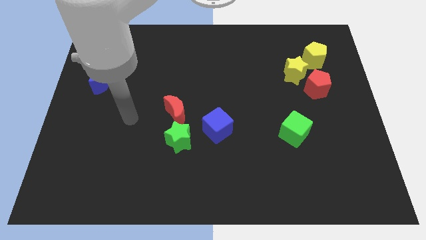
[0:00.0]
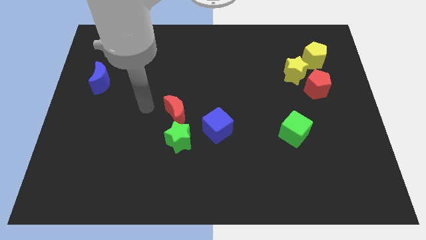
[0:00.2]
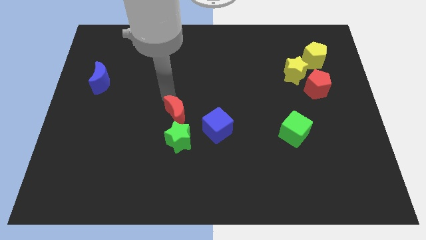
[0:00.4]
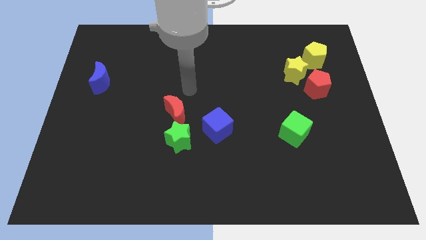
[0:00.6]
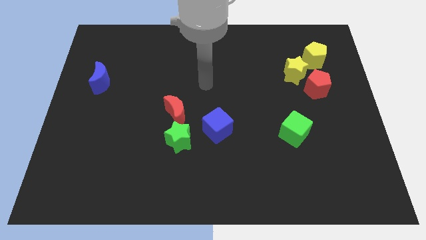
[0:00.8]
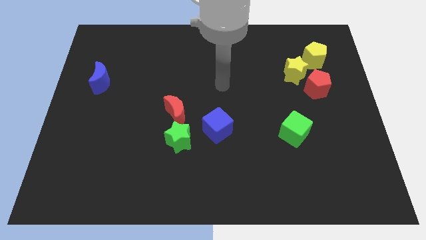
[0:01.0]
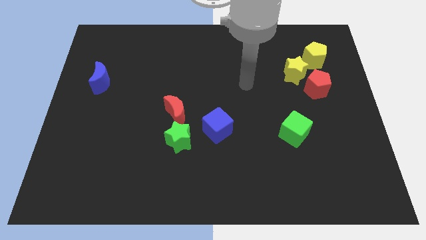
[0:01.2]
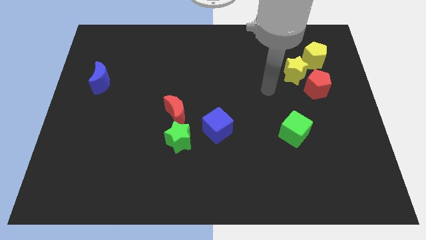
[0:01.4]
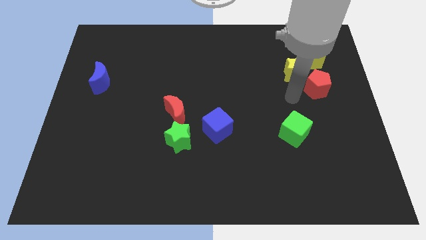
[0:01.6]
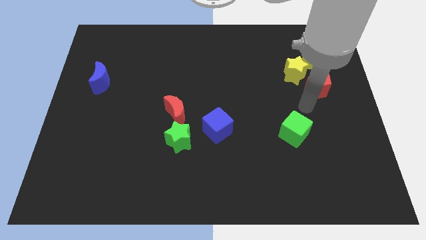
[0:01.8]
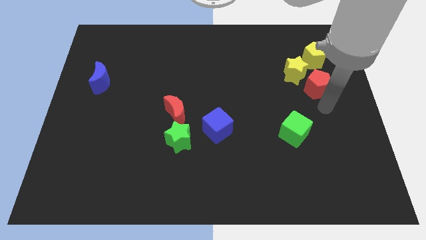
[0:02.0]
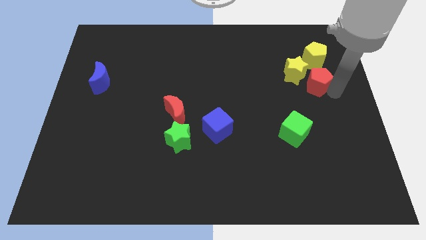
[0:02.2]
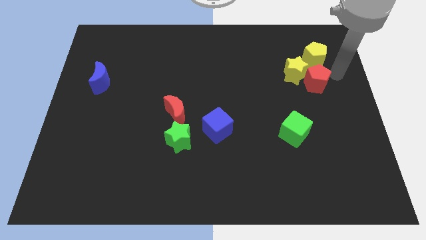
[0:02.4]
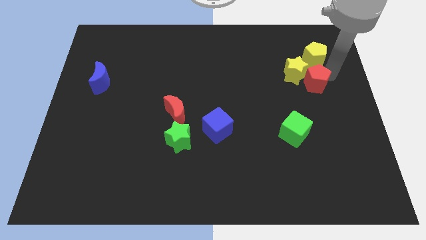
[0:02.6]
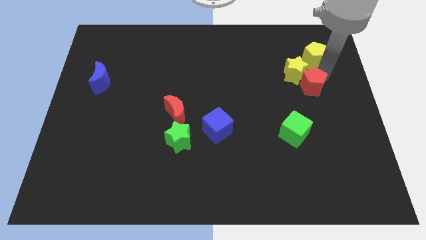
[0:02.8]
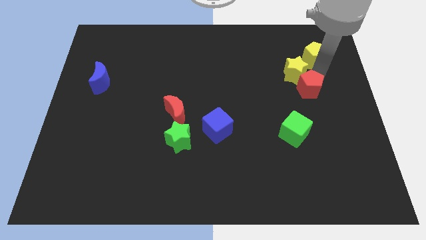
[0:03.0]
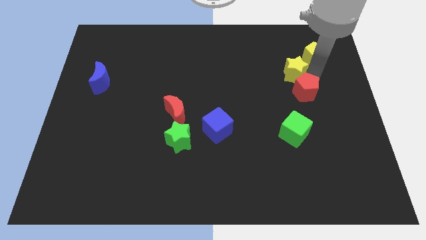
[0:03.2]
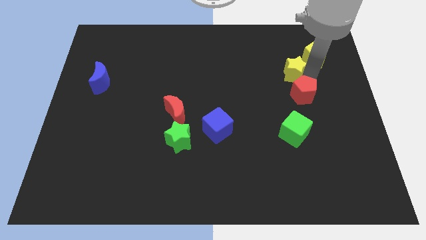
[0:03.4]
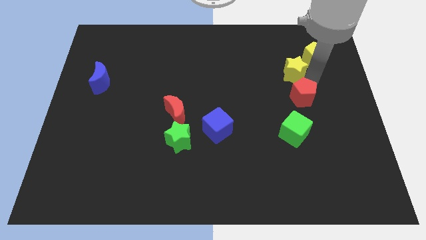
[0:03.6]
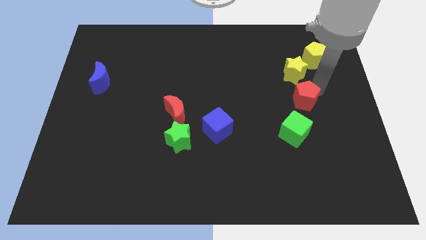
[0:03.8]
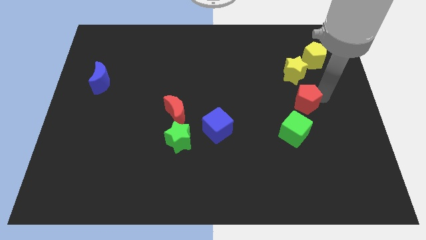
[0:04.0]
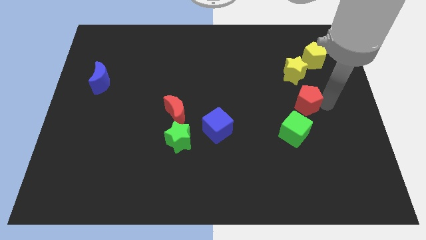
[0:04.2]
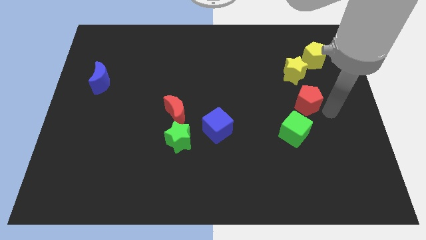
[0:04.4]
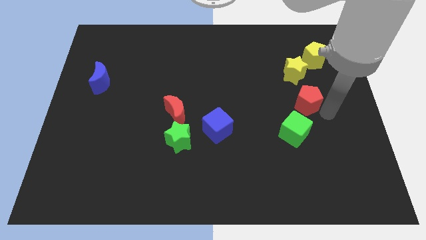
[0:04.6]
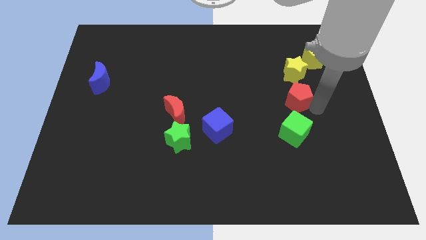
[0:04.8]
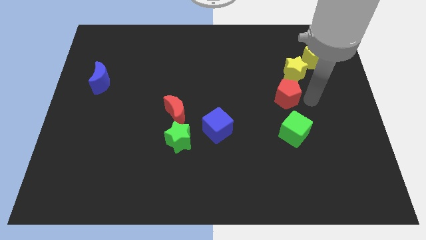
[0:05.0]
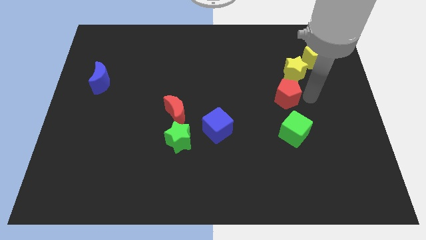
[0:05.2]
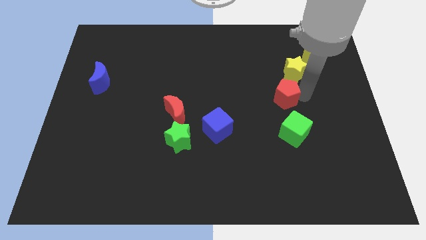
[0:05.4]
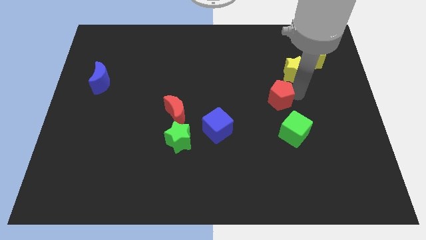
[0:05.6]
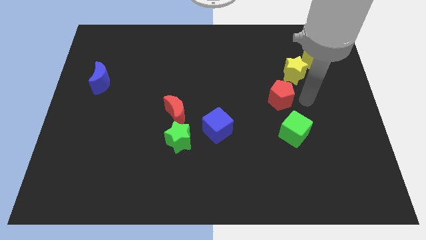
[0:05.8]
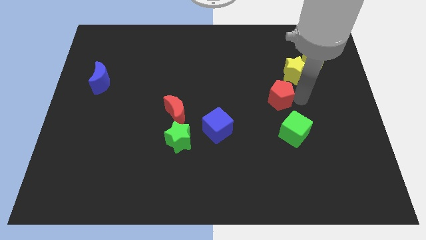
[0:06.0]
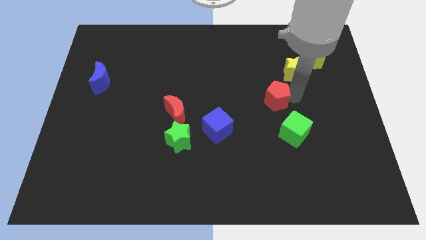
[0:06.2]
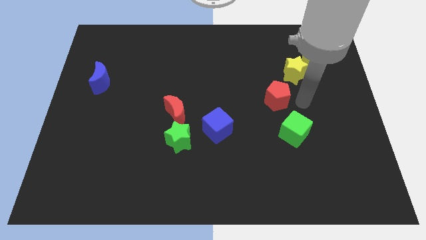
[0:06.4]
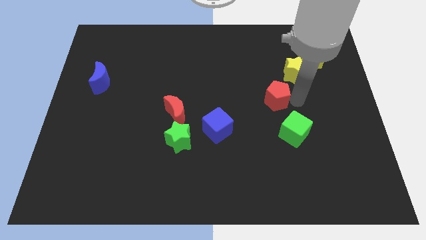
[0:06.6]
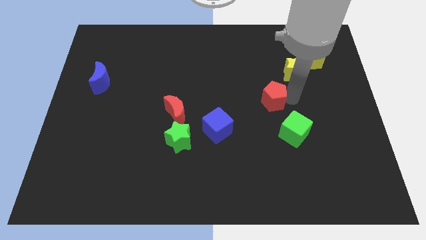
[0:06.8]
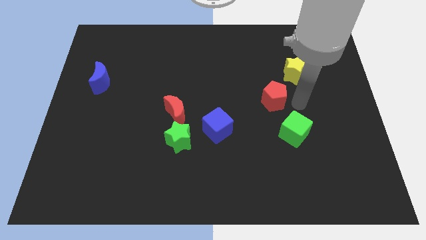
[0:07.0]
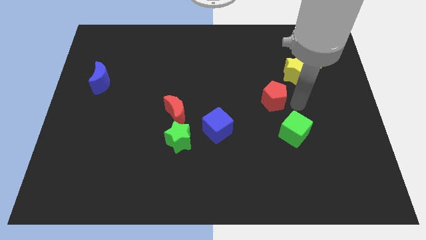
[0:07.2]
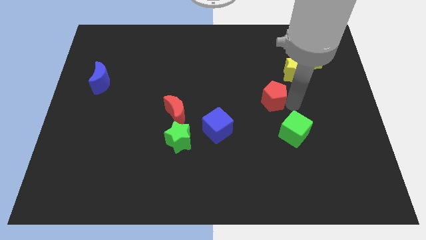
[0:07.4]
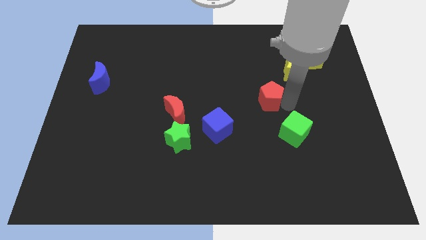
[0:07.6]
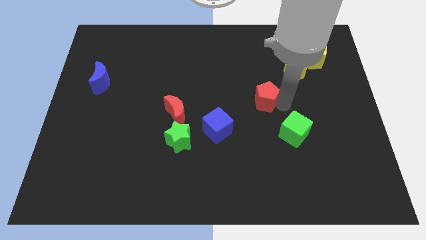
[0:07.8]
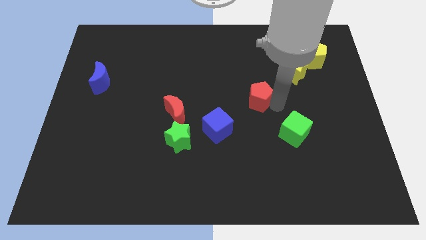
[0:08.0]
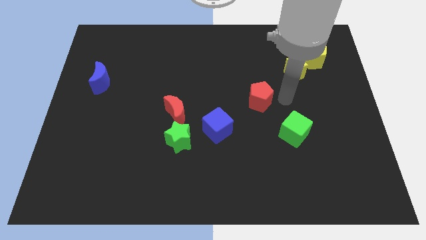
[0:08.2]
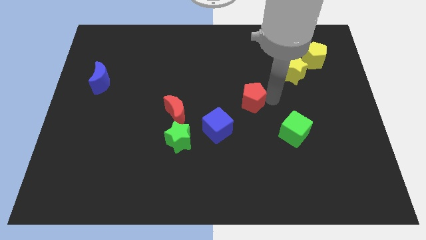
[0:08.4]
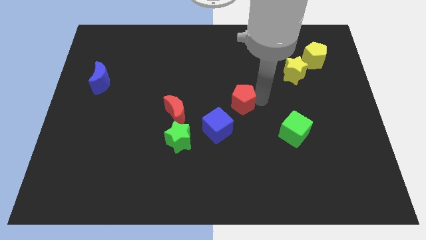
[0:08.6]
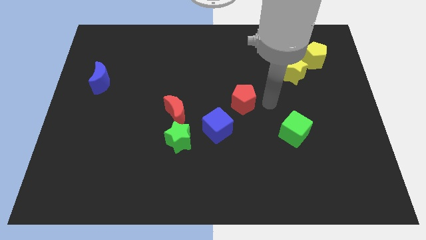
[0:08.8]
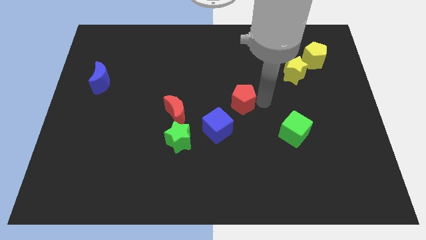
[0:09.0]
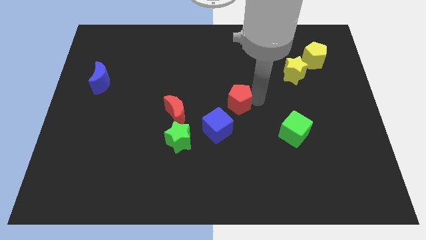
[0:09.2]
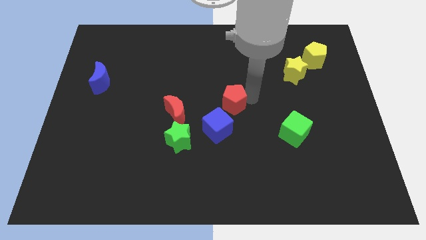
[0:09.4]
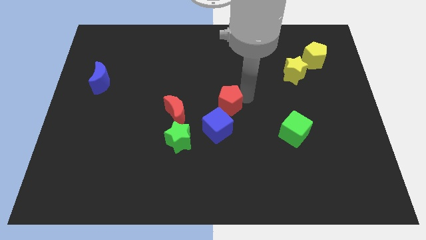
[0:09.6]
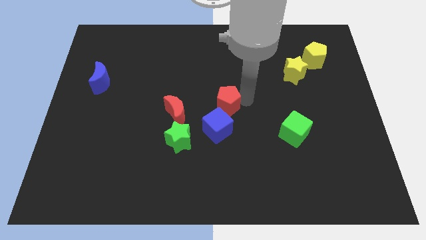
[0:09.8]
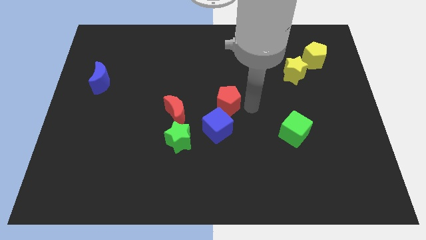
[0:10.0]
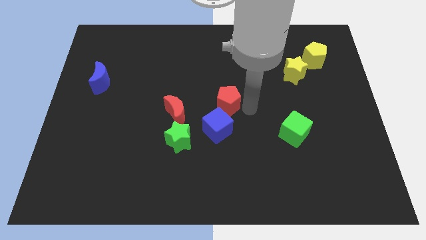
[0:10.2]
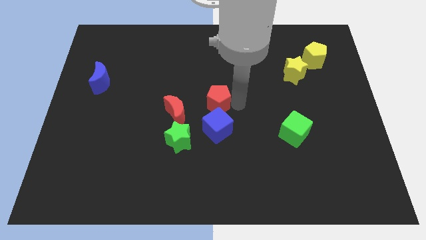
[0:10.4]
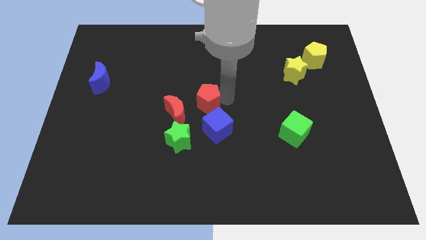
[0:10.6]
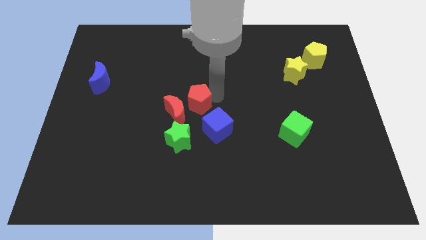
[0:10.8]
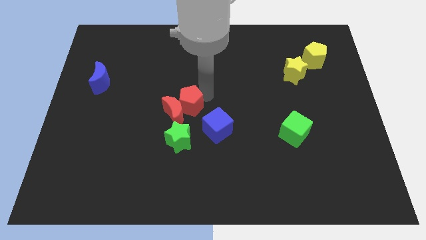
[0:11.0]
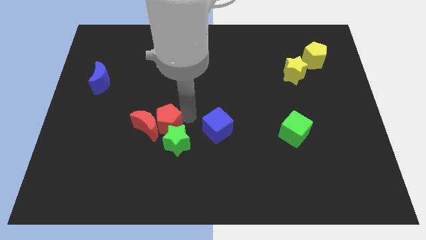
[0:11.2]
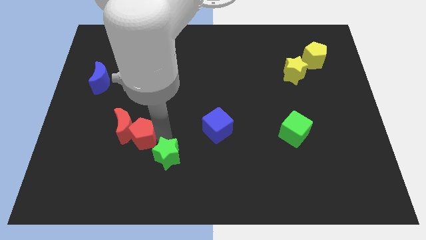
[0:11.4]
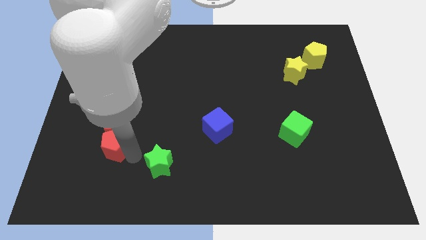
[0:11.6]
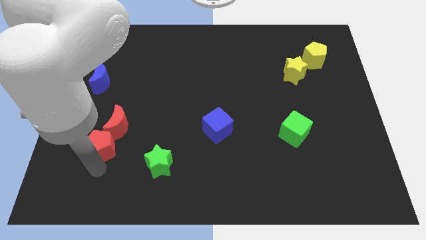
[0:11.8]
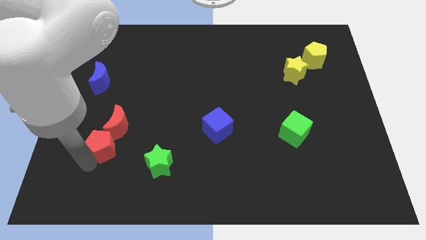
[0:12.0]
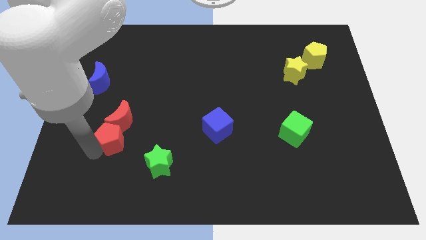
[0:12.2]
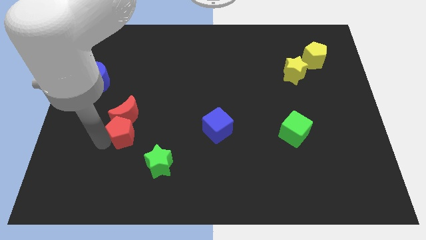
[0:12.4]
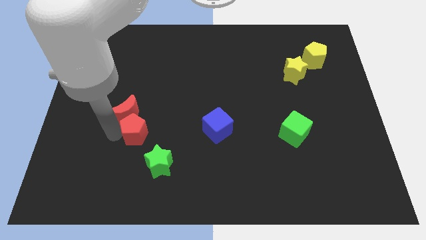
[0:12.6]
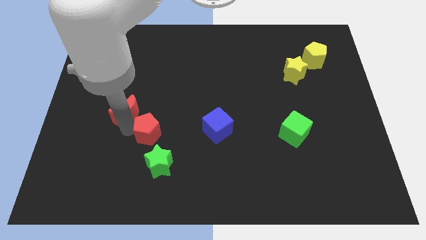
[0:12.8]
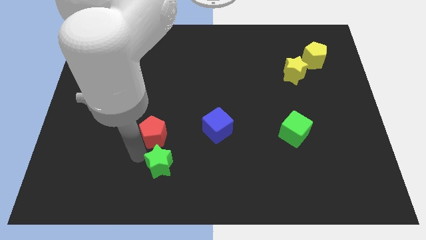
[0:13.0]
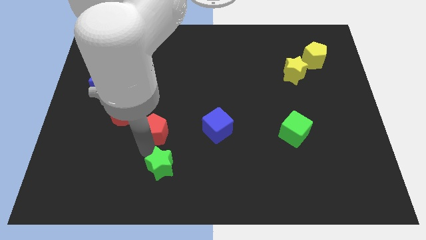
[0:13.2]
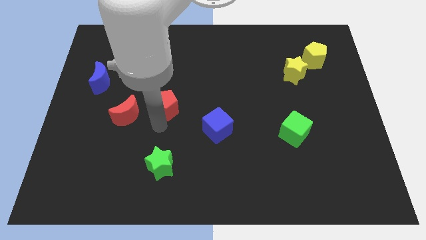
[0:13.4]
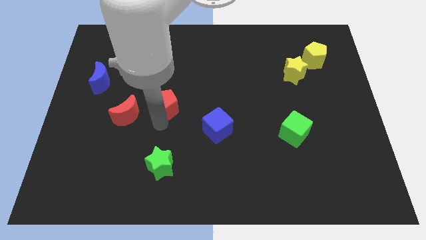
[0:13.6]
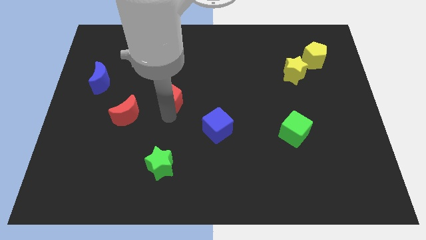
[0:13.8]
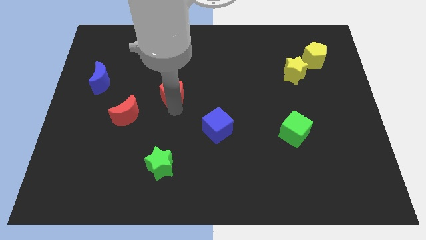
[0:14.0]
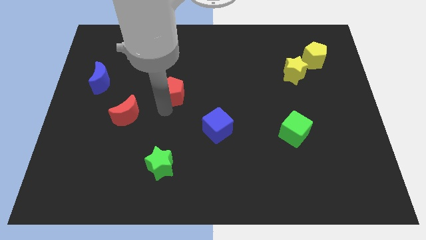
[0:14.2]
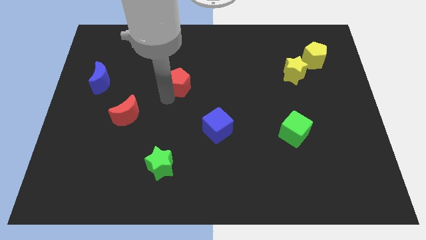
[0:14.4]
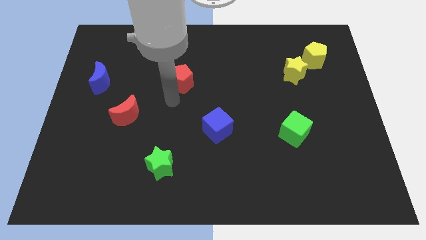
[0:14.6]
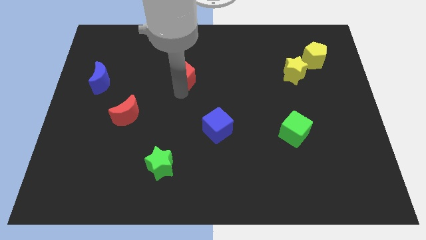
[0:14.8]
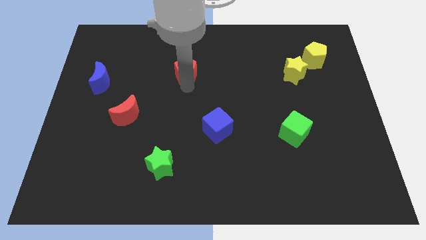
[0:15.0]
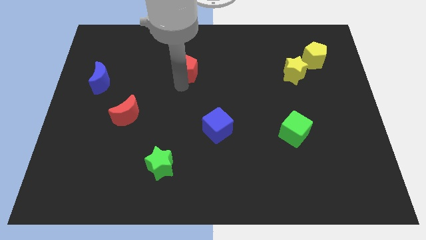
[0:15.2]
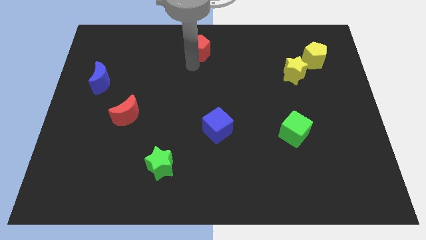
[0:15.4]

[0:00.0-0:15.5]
move the red pentagon to the towards your base
